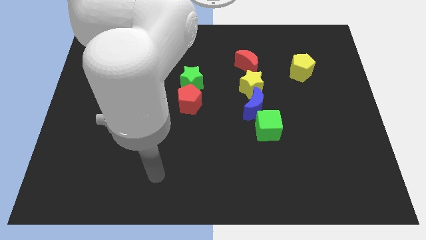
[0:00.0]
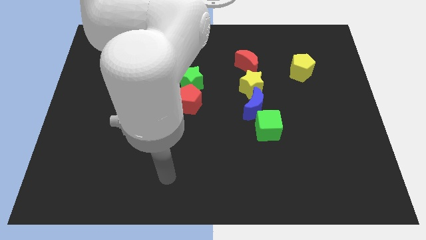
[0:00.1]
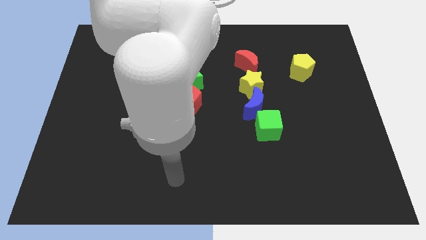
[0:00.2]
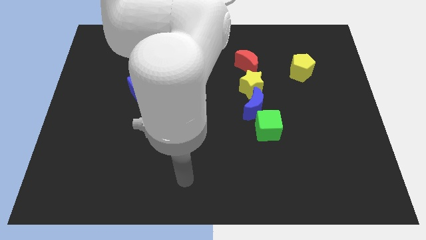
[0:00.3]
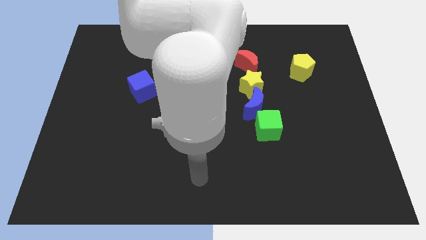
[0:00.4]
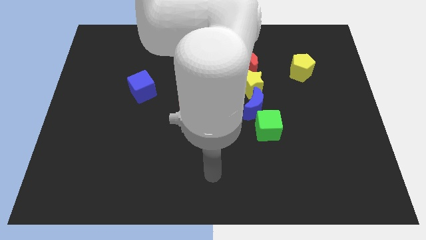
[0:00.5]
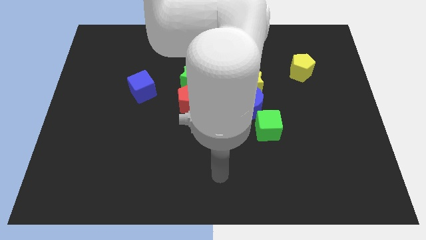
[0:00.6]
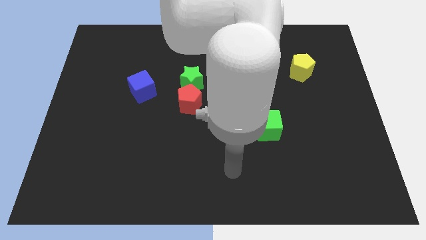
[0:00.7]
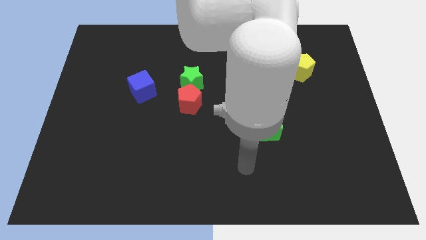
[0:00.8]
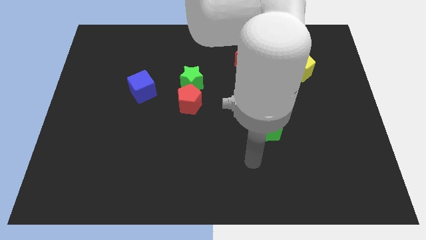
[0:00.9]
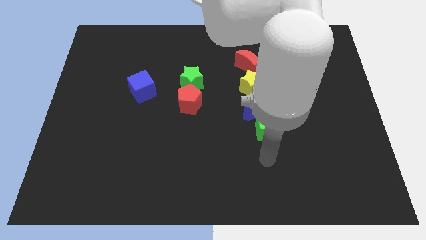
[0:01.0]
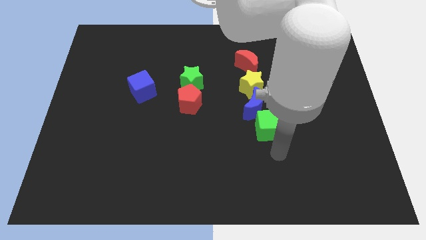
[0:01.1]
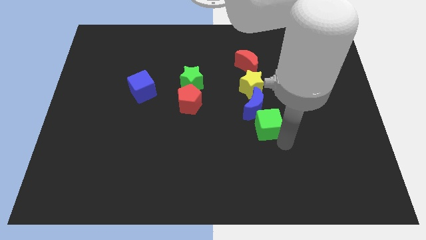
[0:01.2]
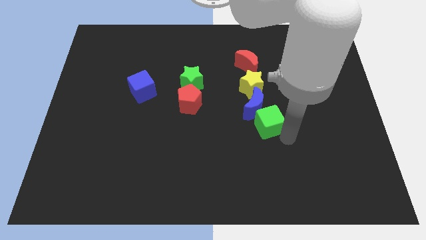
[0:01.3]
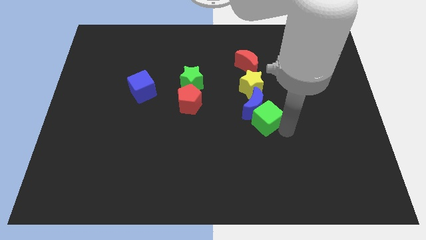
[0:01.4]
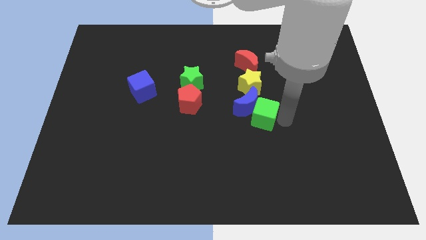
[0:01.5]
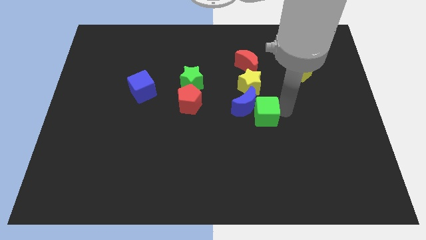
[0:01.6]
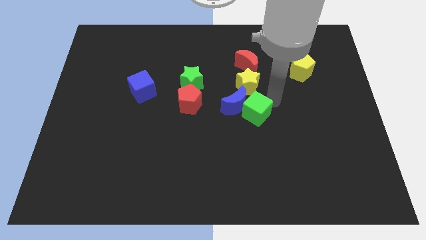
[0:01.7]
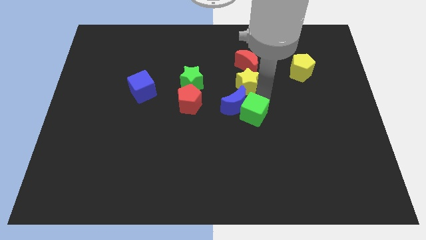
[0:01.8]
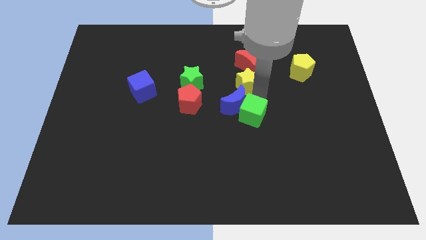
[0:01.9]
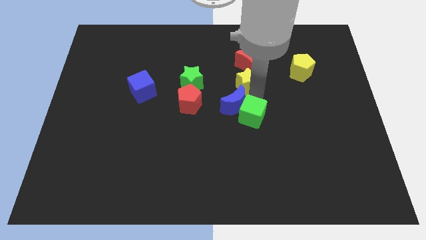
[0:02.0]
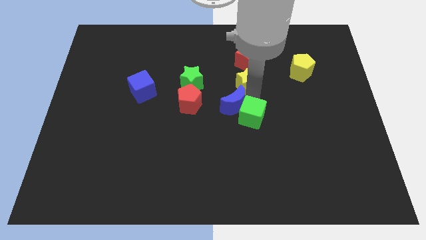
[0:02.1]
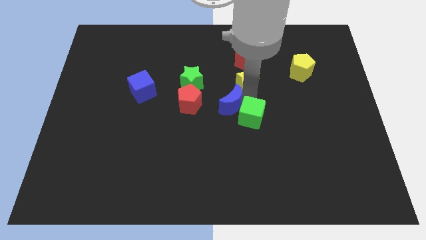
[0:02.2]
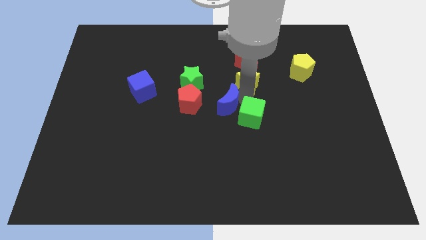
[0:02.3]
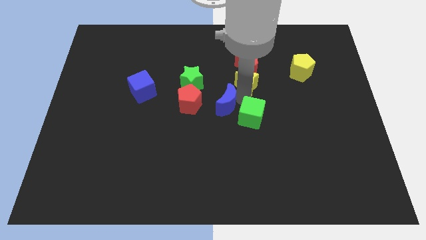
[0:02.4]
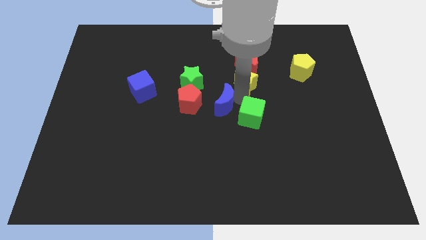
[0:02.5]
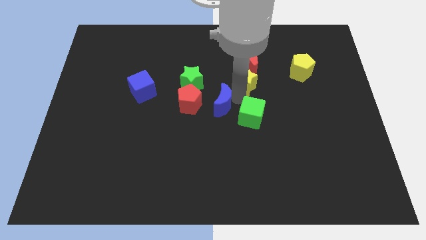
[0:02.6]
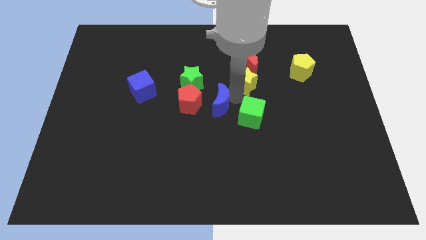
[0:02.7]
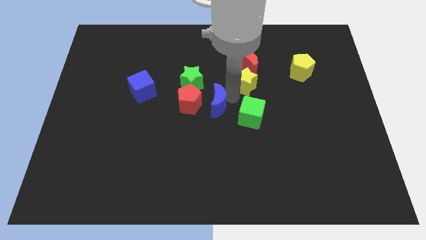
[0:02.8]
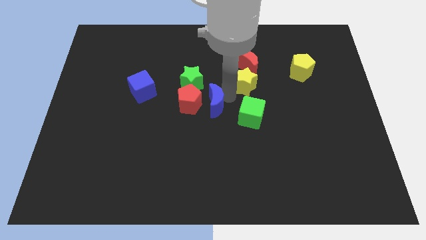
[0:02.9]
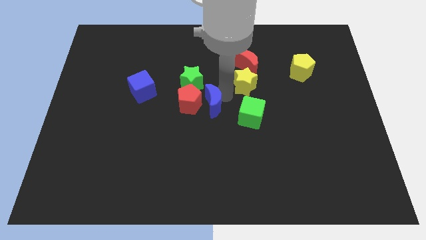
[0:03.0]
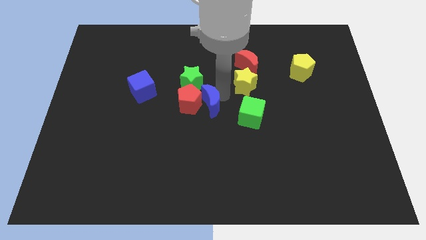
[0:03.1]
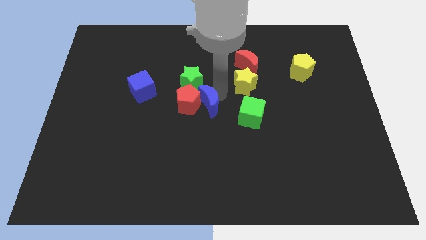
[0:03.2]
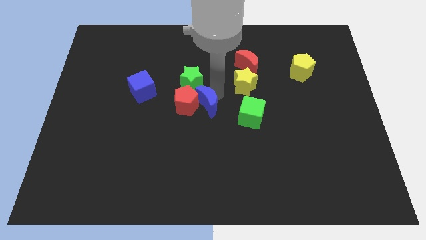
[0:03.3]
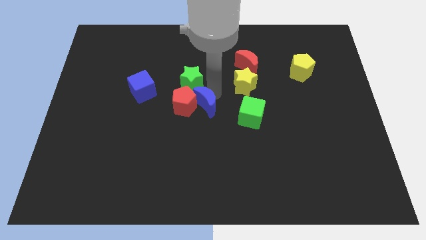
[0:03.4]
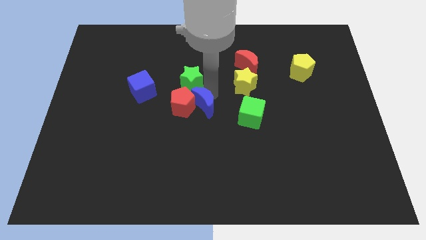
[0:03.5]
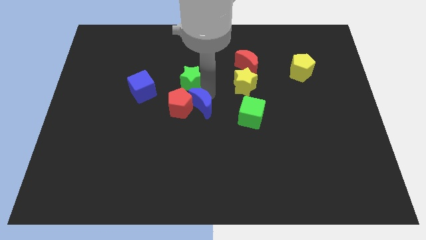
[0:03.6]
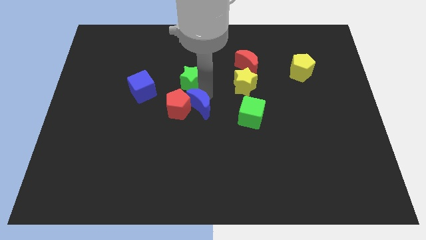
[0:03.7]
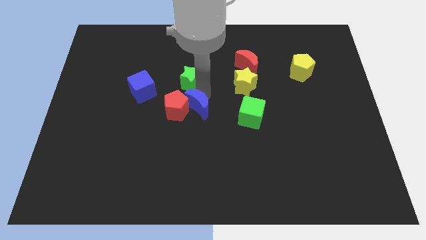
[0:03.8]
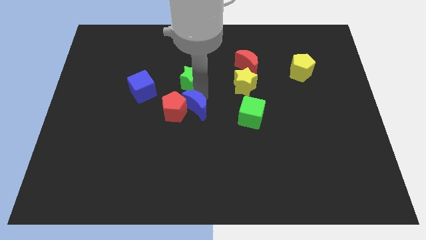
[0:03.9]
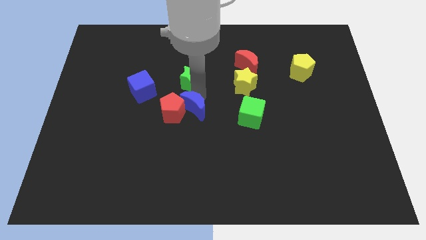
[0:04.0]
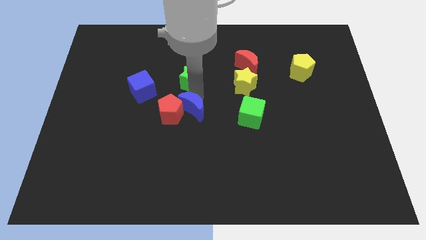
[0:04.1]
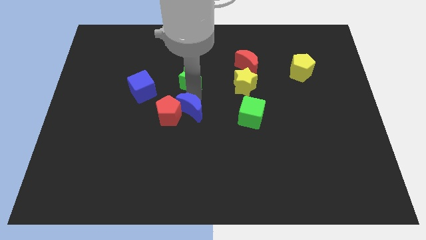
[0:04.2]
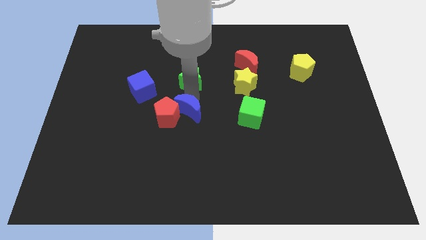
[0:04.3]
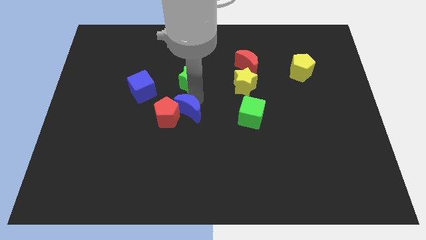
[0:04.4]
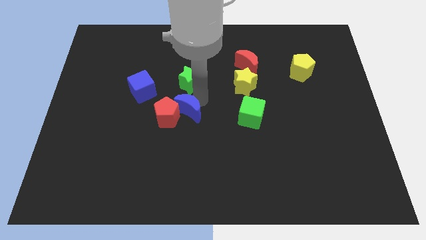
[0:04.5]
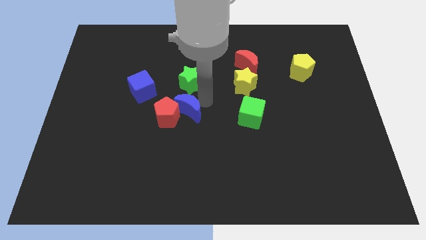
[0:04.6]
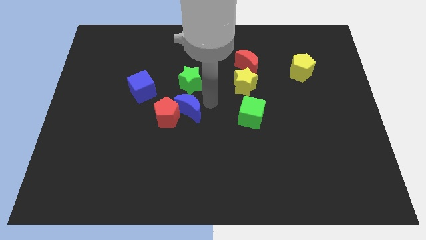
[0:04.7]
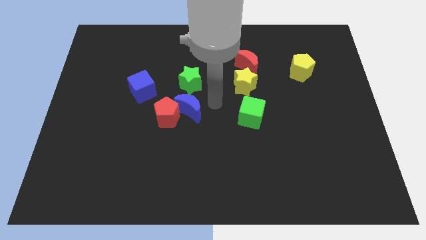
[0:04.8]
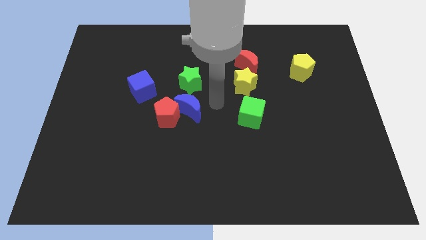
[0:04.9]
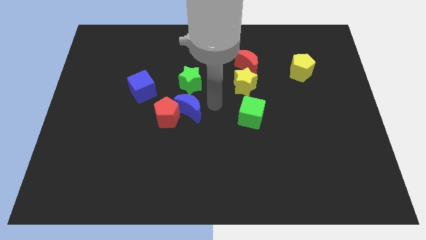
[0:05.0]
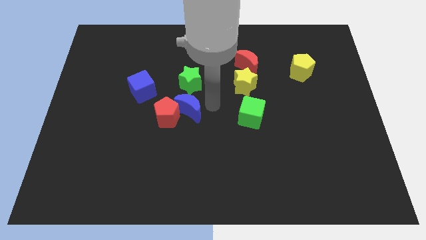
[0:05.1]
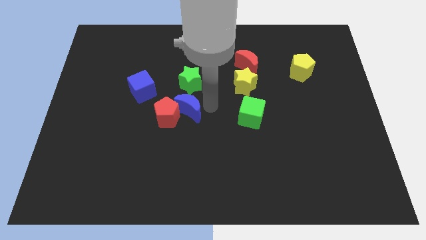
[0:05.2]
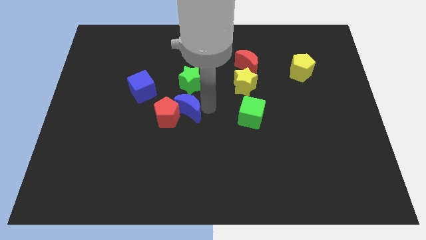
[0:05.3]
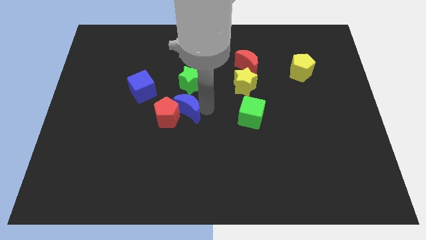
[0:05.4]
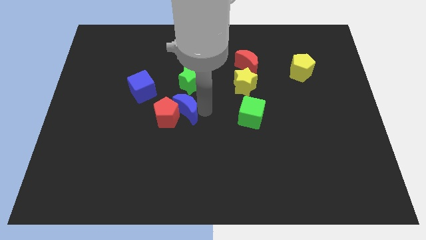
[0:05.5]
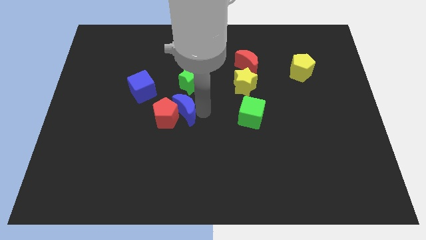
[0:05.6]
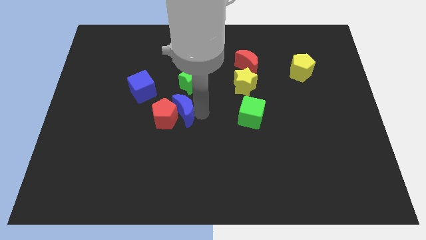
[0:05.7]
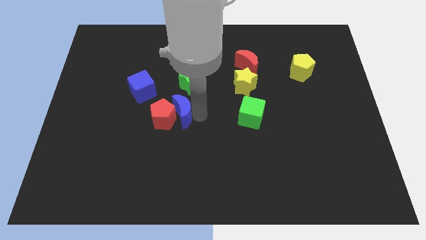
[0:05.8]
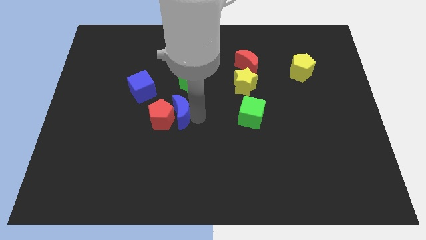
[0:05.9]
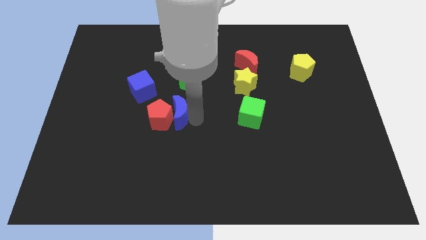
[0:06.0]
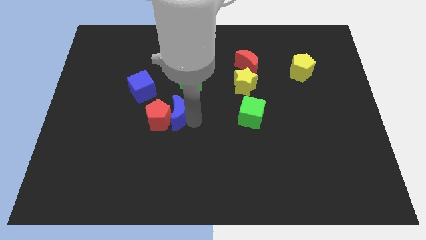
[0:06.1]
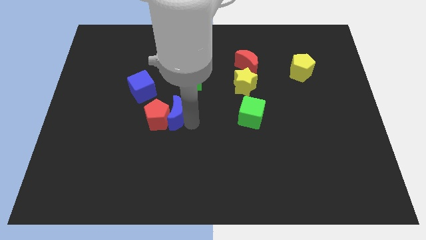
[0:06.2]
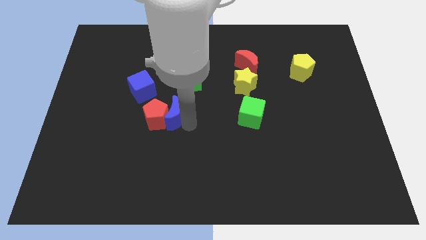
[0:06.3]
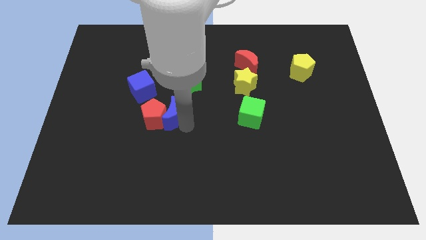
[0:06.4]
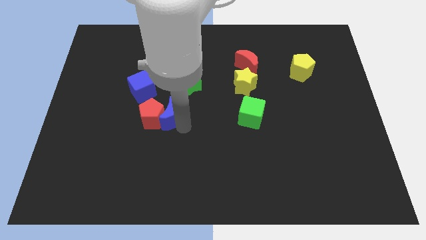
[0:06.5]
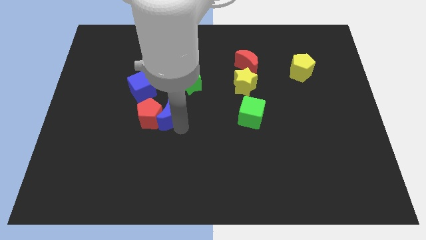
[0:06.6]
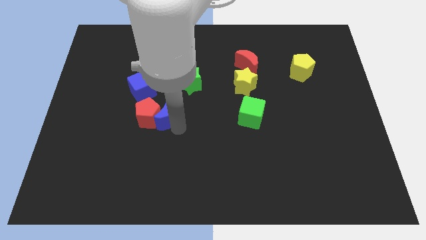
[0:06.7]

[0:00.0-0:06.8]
move the blue moon left

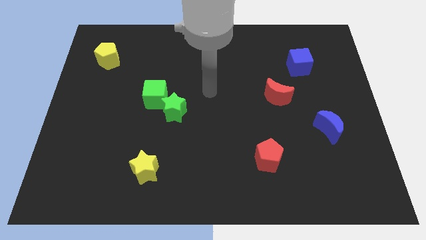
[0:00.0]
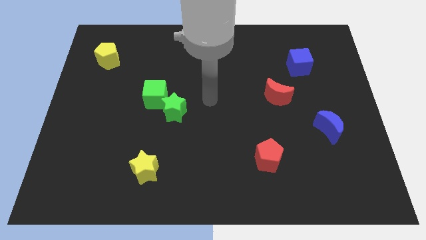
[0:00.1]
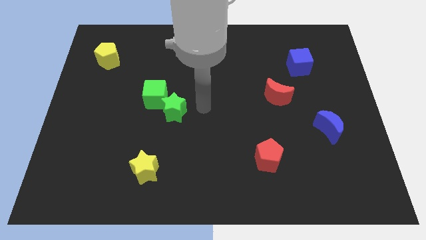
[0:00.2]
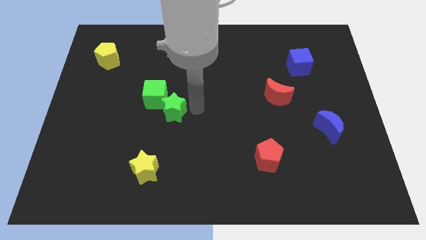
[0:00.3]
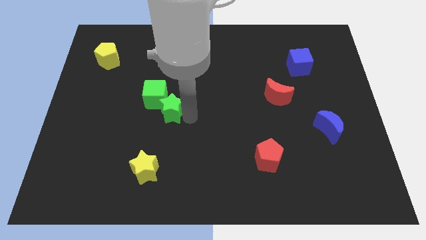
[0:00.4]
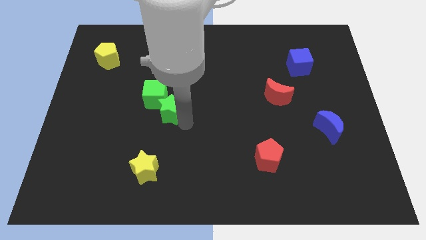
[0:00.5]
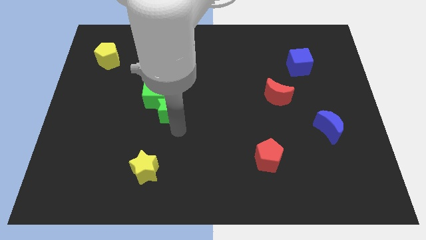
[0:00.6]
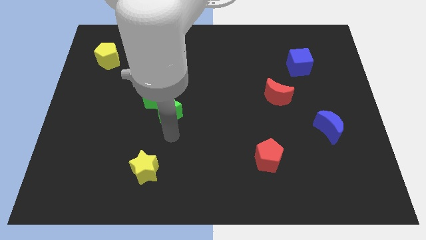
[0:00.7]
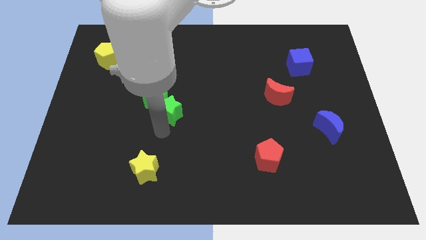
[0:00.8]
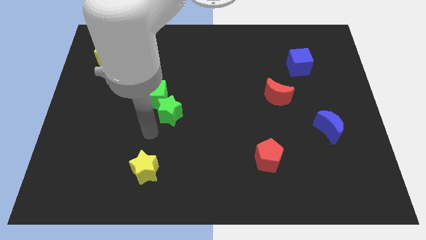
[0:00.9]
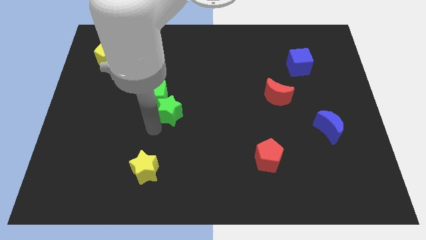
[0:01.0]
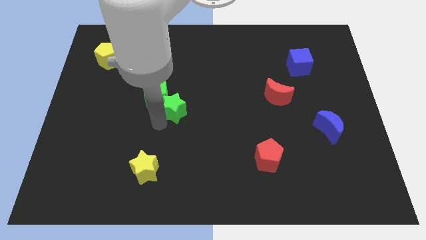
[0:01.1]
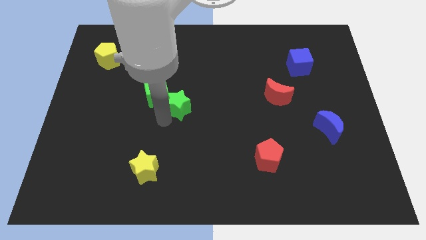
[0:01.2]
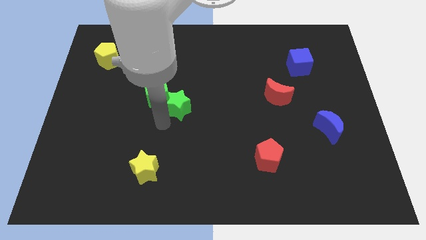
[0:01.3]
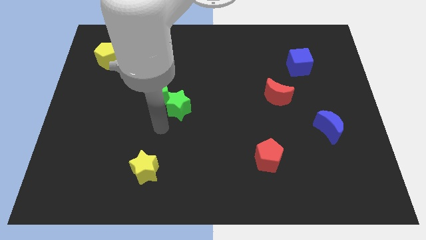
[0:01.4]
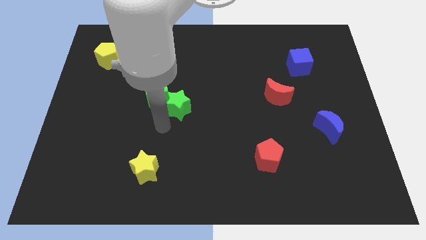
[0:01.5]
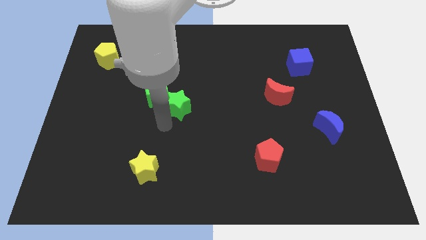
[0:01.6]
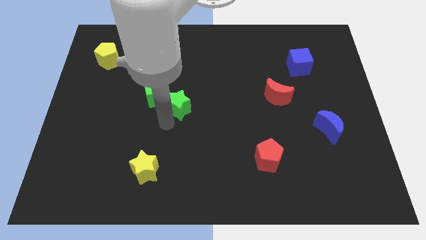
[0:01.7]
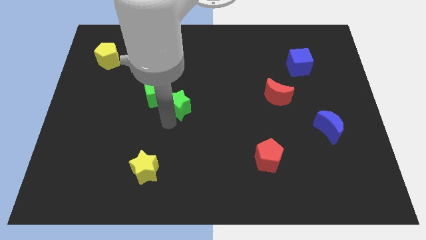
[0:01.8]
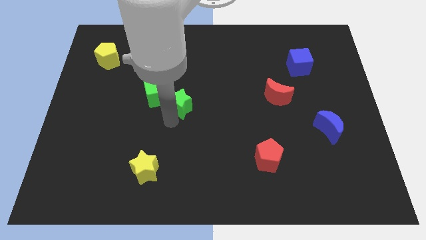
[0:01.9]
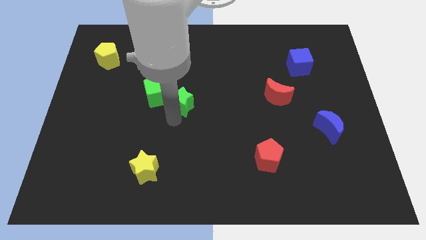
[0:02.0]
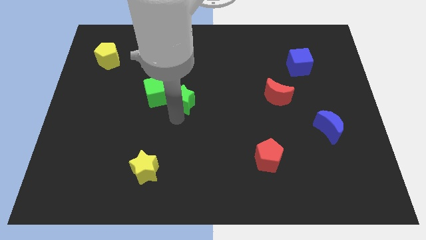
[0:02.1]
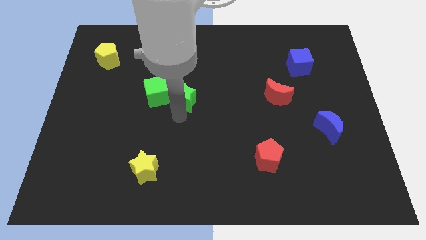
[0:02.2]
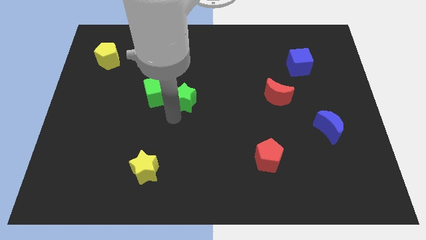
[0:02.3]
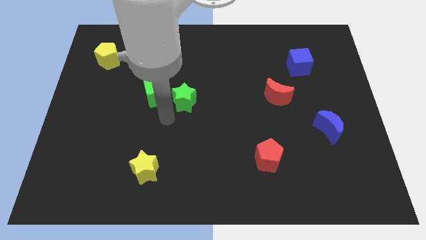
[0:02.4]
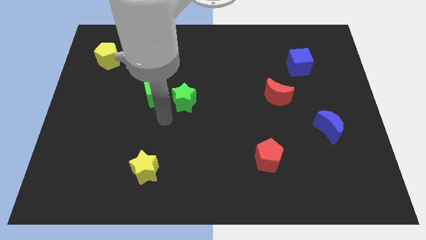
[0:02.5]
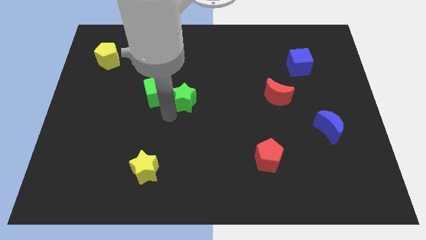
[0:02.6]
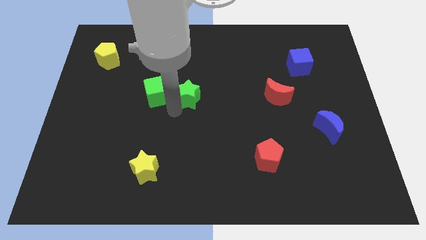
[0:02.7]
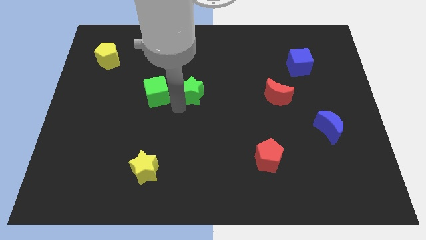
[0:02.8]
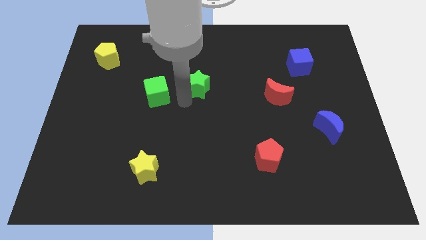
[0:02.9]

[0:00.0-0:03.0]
slide the green star upwards and to the right diagonally slightly
